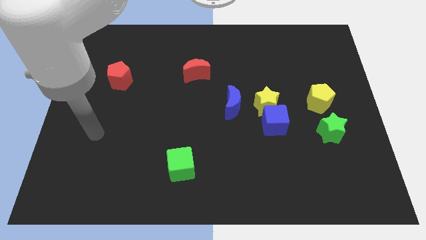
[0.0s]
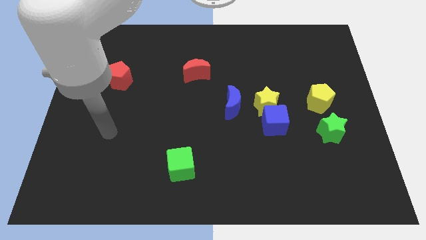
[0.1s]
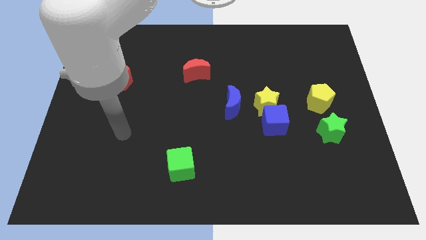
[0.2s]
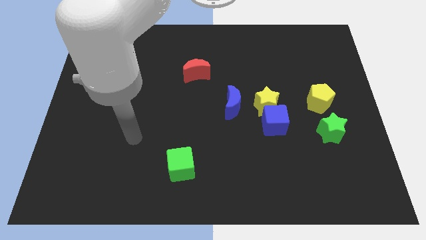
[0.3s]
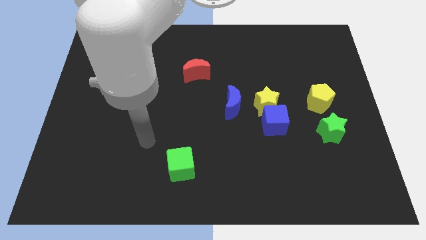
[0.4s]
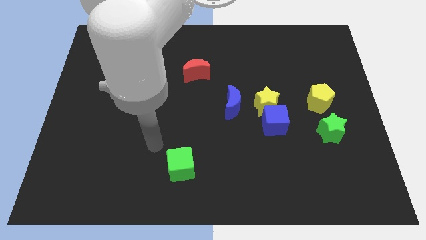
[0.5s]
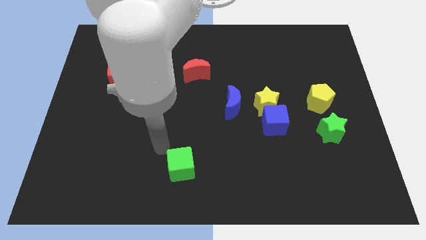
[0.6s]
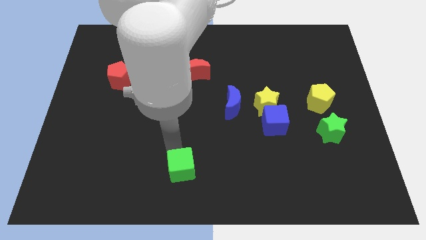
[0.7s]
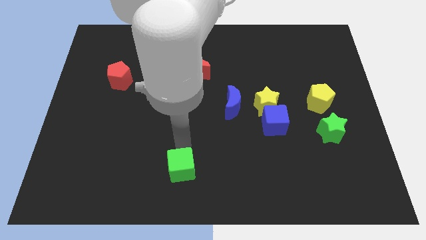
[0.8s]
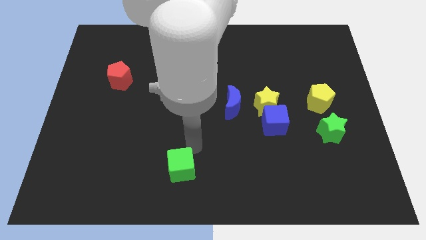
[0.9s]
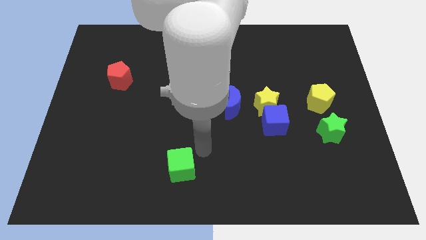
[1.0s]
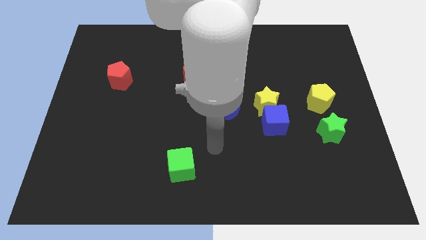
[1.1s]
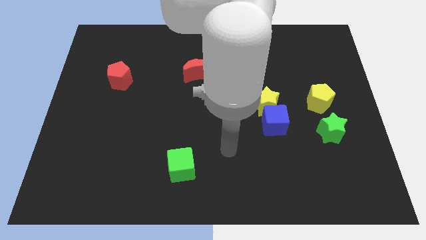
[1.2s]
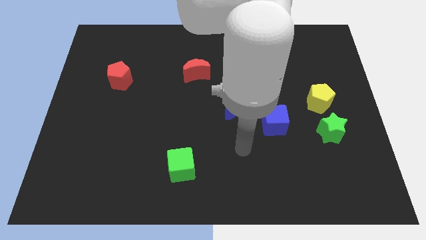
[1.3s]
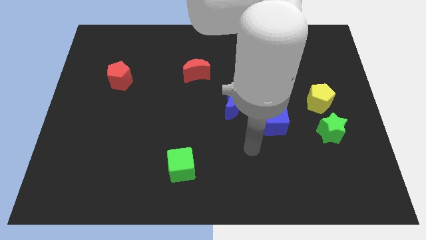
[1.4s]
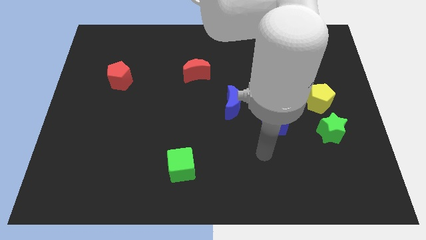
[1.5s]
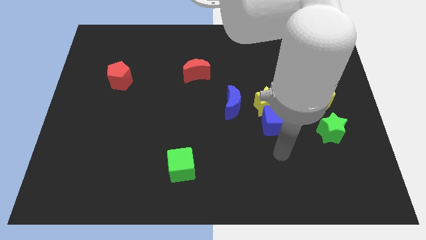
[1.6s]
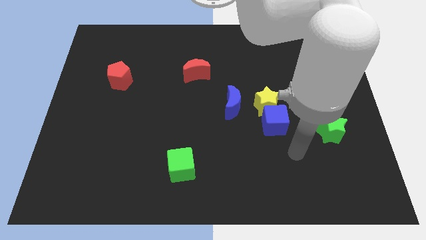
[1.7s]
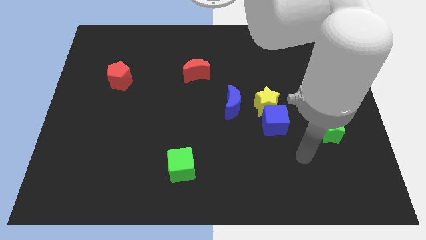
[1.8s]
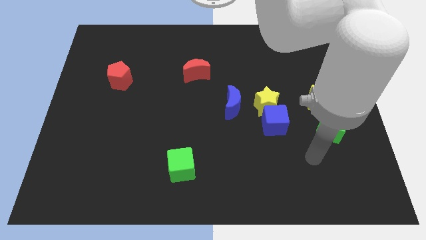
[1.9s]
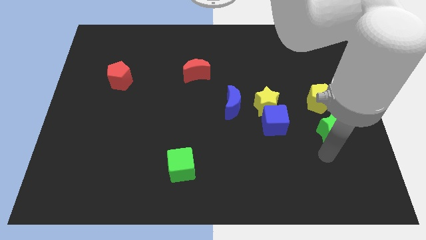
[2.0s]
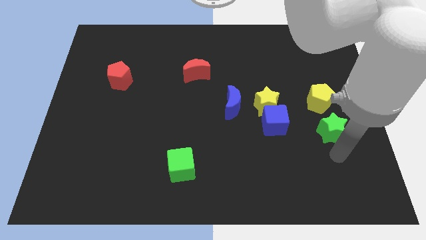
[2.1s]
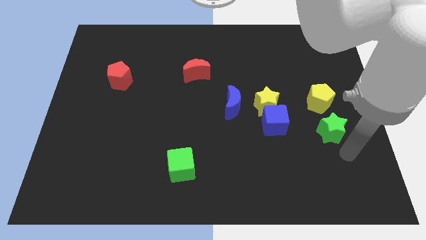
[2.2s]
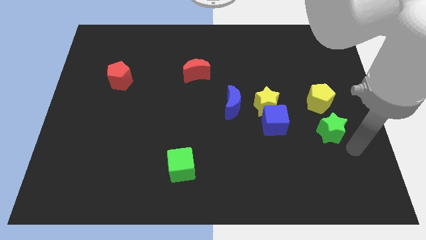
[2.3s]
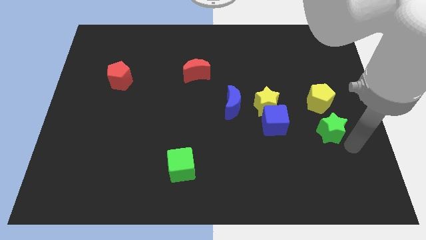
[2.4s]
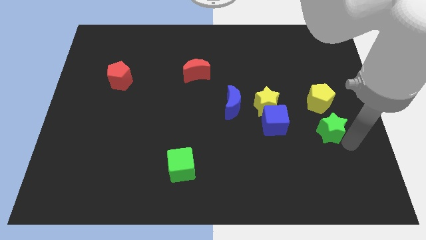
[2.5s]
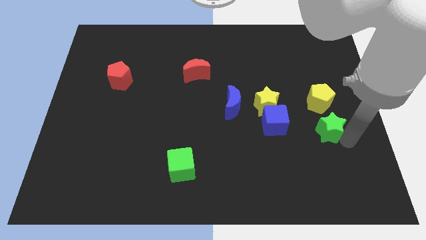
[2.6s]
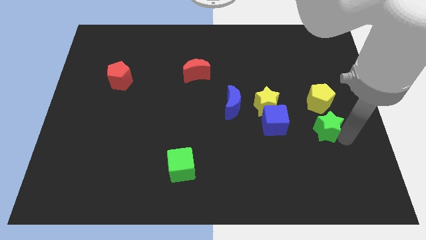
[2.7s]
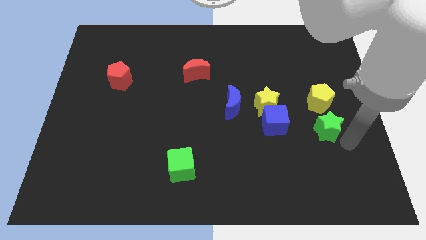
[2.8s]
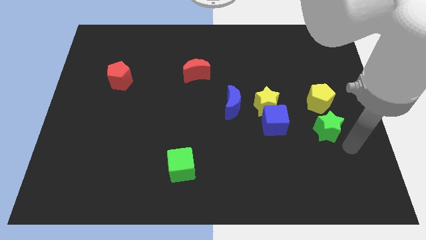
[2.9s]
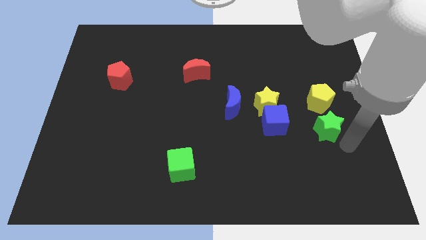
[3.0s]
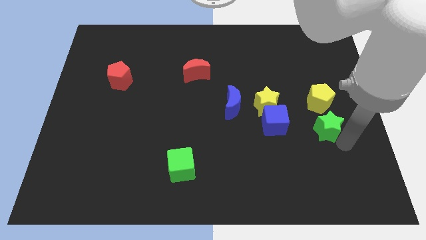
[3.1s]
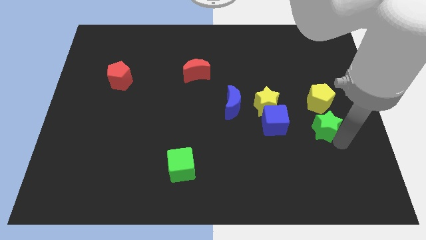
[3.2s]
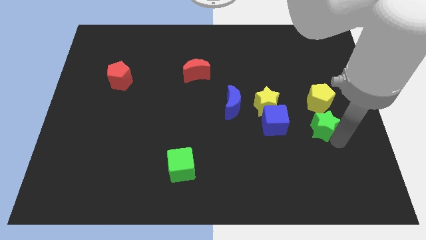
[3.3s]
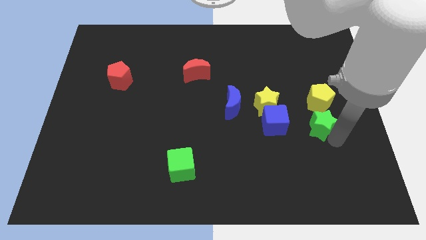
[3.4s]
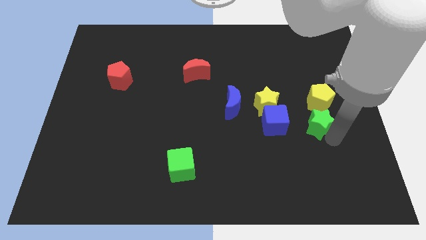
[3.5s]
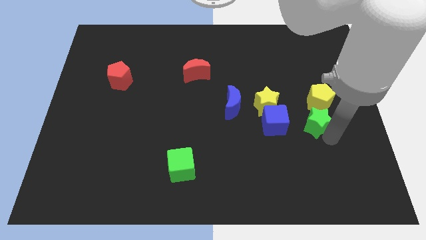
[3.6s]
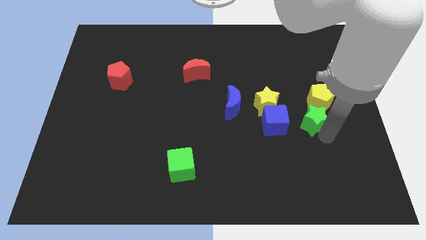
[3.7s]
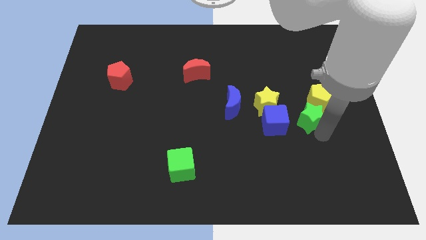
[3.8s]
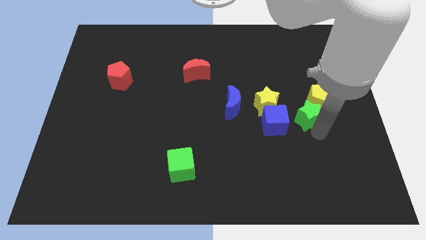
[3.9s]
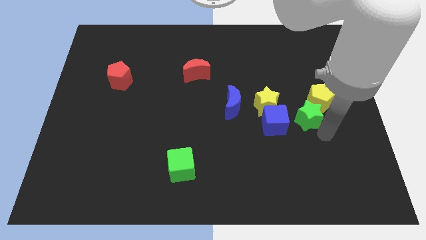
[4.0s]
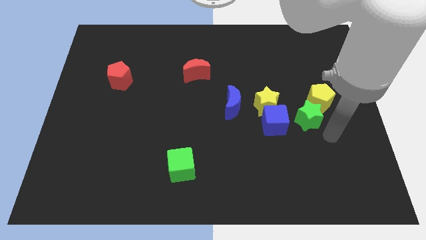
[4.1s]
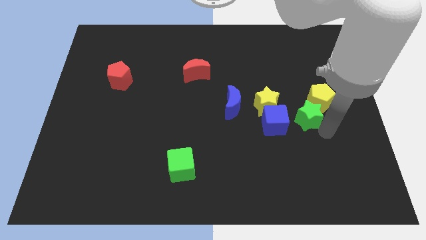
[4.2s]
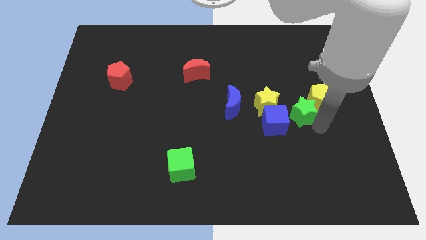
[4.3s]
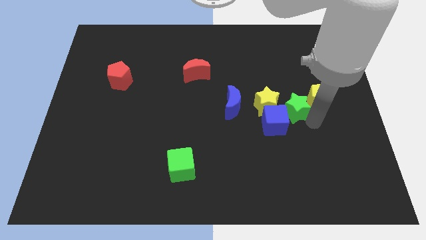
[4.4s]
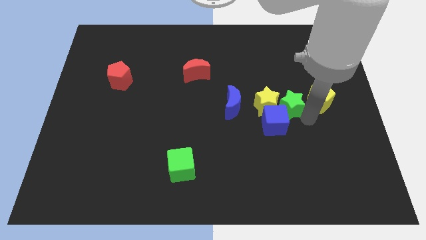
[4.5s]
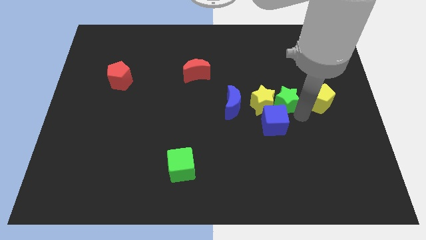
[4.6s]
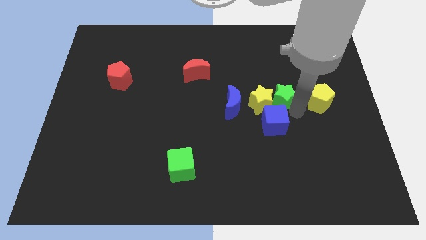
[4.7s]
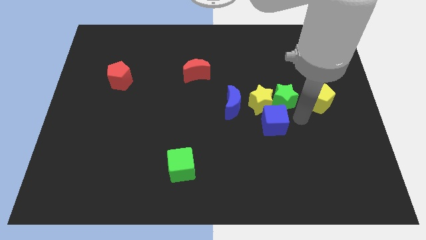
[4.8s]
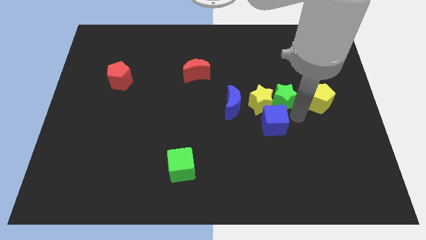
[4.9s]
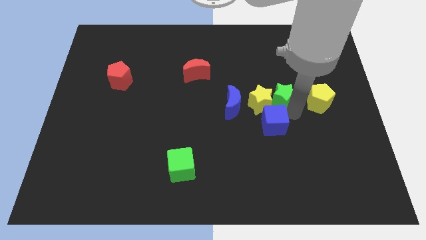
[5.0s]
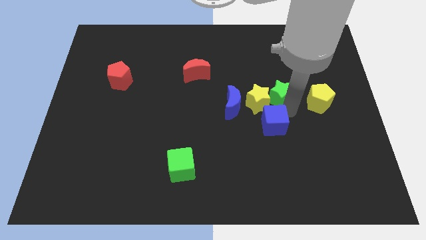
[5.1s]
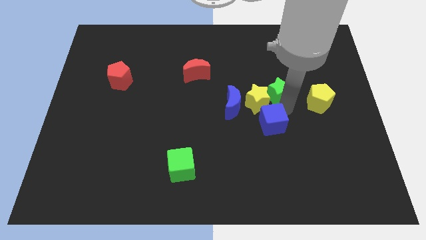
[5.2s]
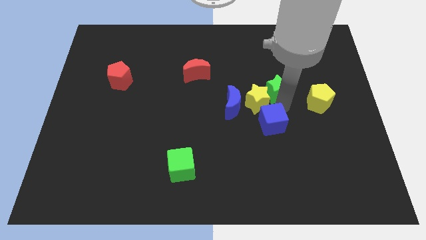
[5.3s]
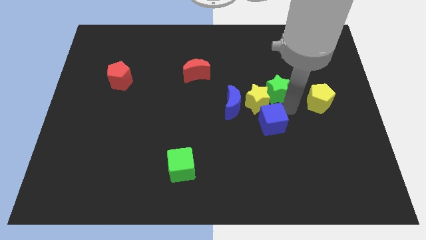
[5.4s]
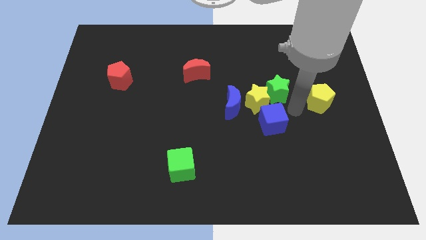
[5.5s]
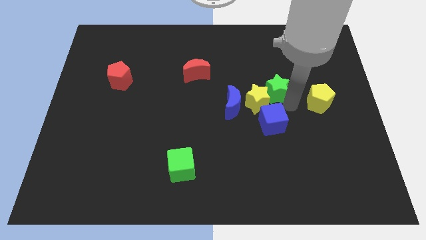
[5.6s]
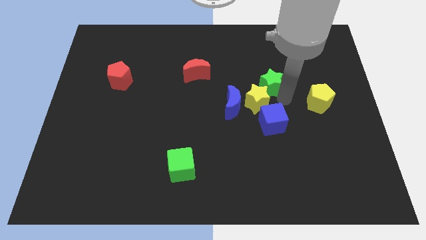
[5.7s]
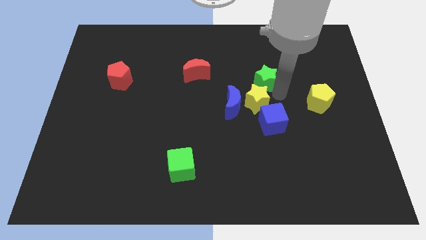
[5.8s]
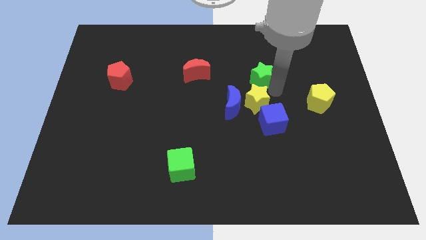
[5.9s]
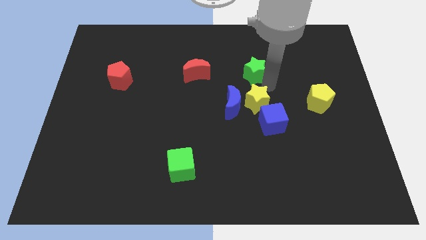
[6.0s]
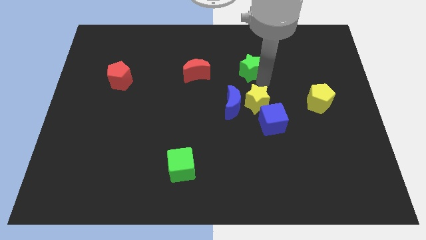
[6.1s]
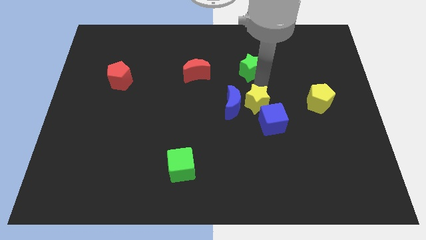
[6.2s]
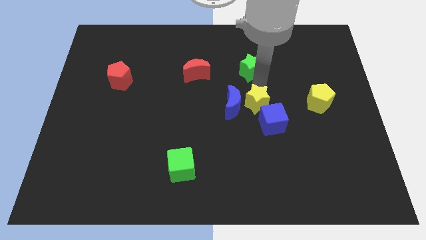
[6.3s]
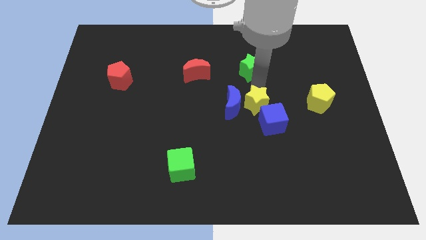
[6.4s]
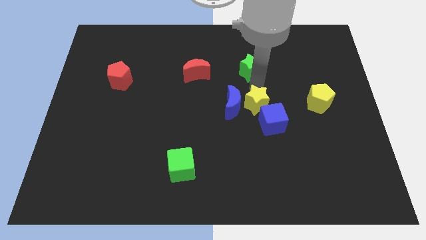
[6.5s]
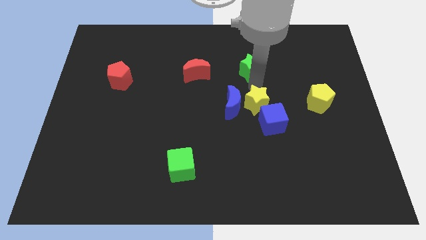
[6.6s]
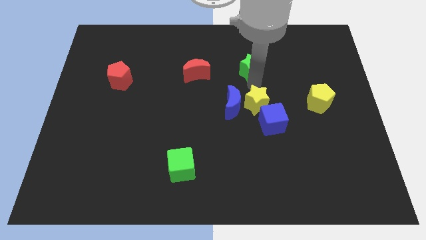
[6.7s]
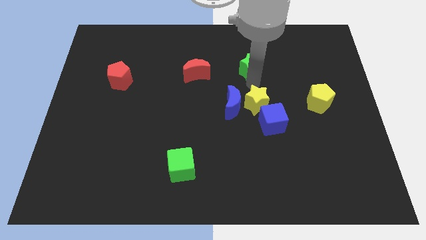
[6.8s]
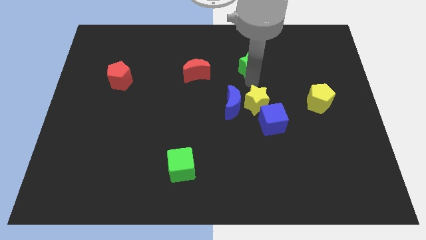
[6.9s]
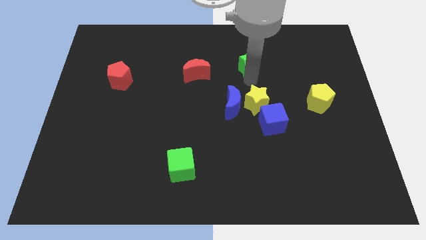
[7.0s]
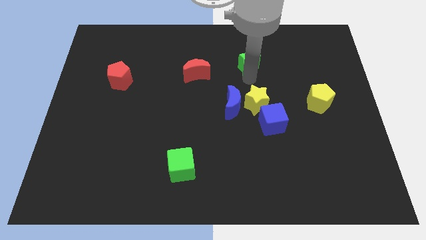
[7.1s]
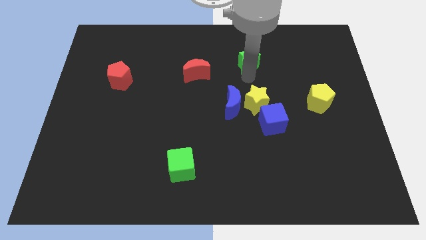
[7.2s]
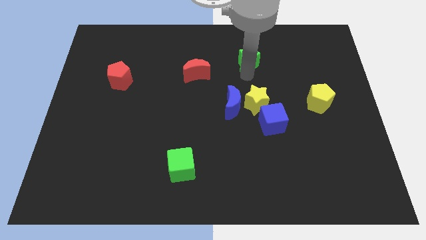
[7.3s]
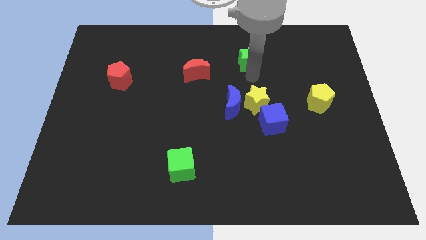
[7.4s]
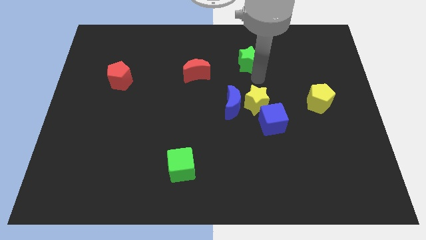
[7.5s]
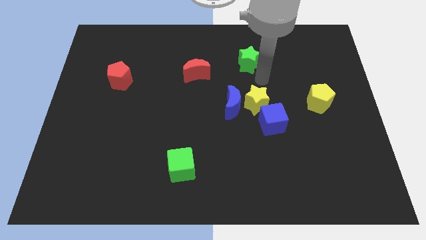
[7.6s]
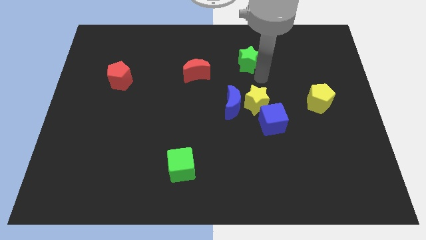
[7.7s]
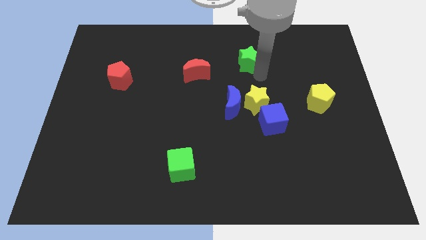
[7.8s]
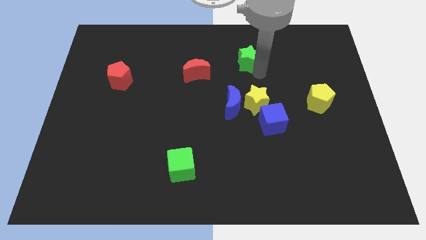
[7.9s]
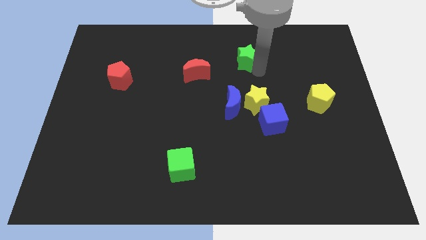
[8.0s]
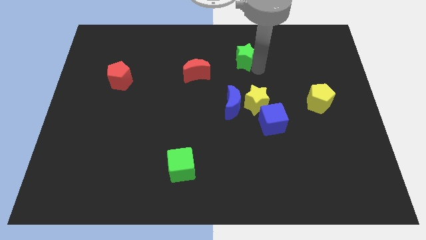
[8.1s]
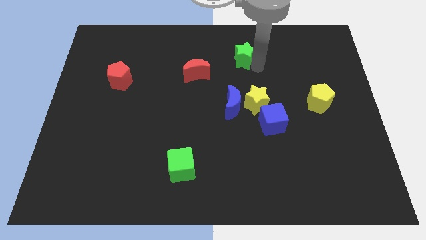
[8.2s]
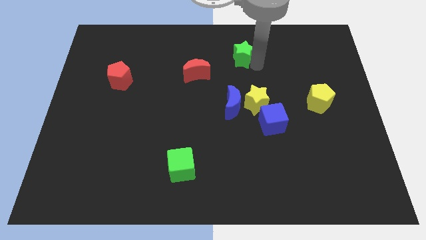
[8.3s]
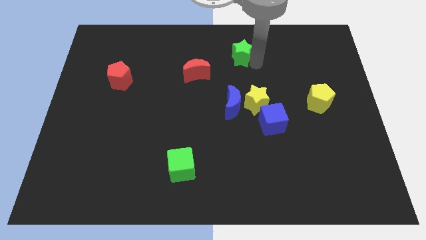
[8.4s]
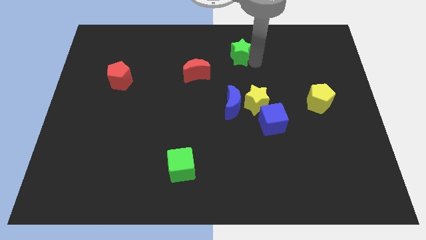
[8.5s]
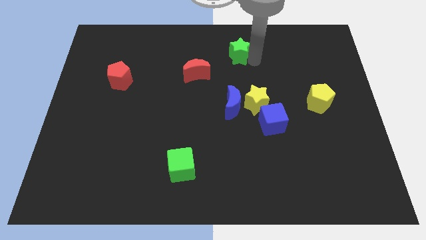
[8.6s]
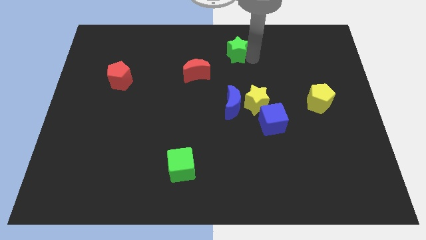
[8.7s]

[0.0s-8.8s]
move the green star to the top side
